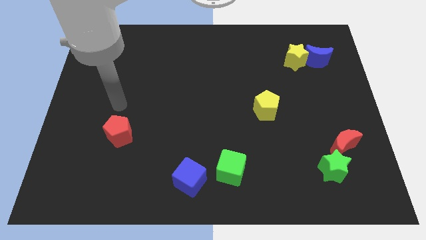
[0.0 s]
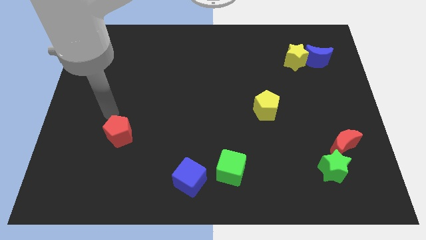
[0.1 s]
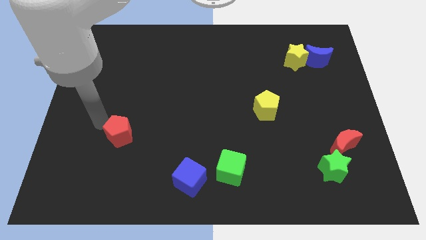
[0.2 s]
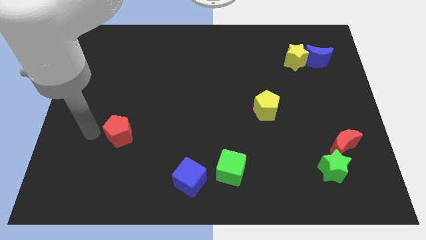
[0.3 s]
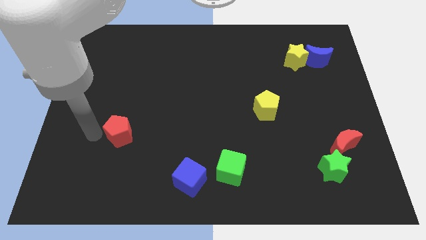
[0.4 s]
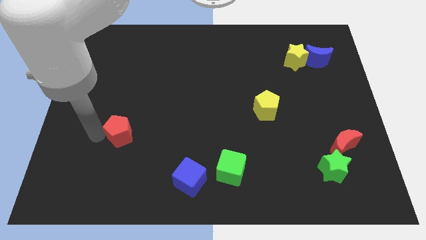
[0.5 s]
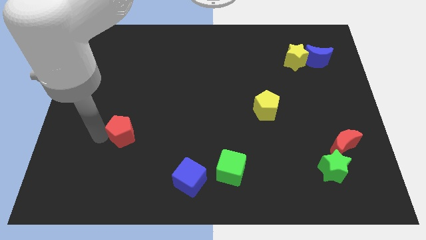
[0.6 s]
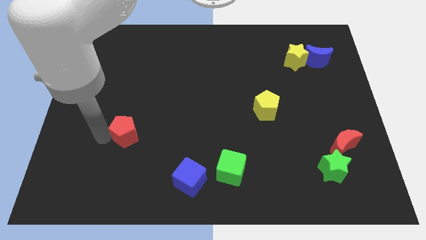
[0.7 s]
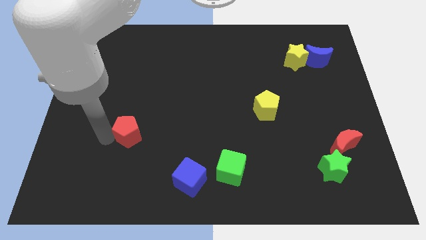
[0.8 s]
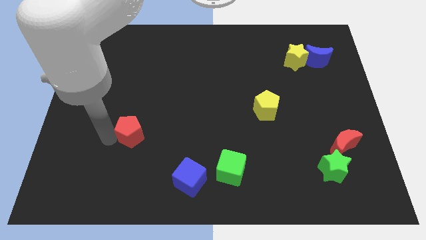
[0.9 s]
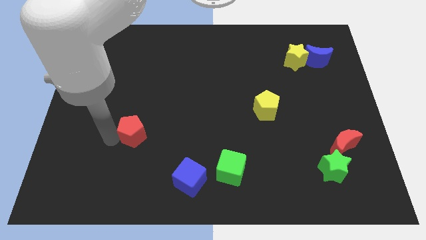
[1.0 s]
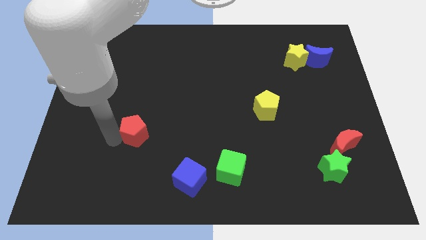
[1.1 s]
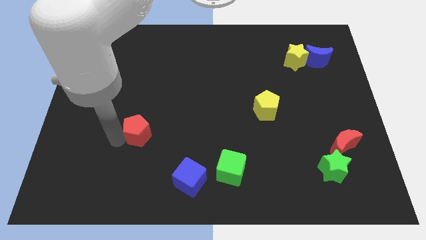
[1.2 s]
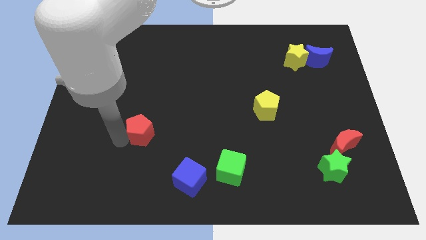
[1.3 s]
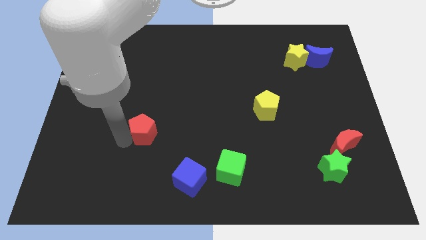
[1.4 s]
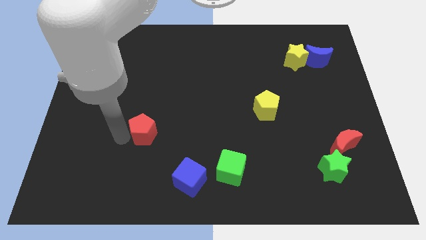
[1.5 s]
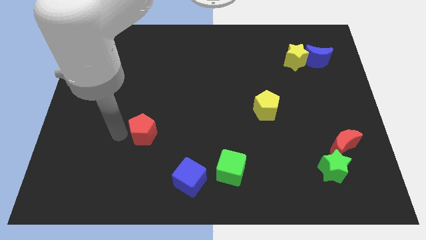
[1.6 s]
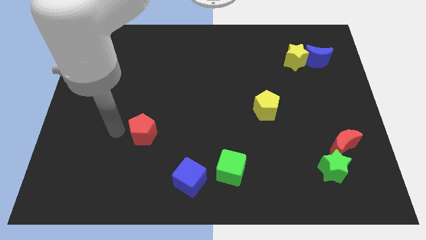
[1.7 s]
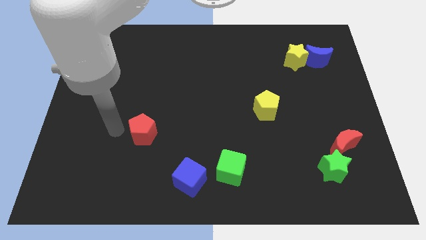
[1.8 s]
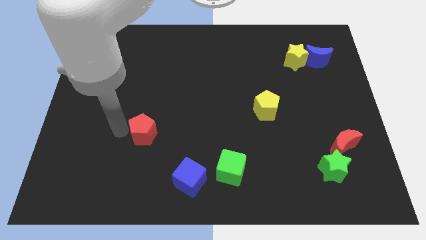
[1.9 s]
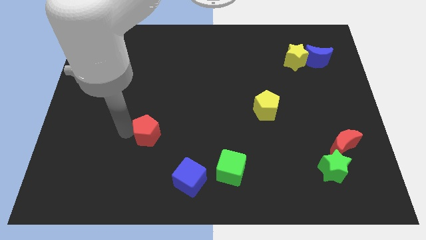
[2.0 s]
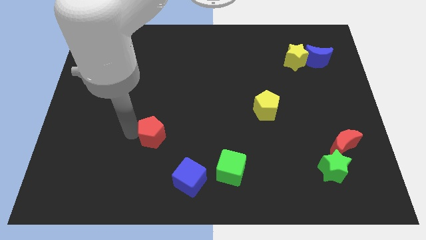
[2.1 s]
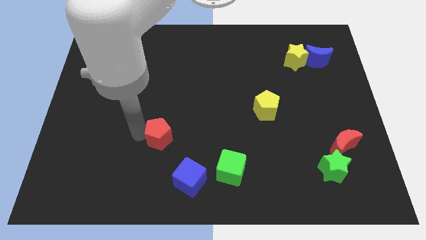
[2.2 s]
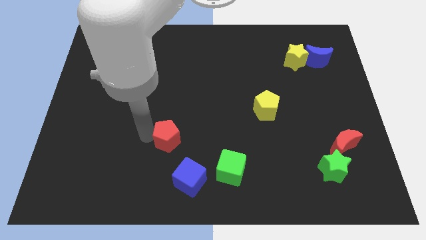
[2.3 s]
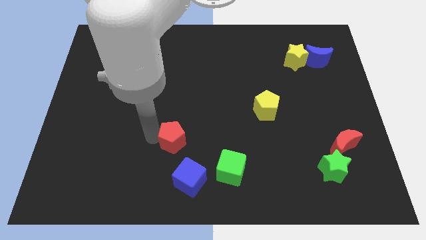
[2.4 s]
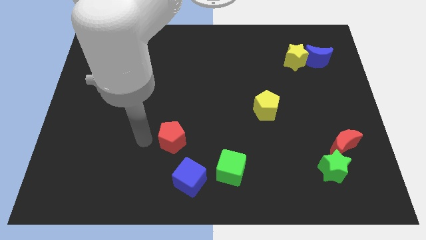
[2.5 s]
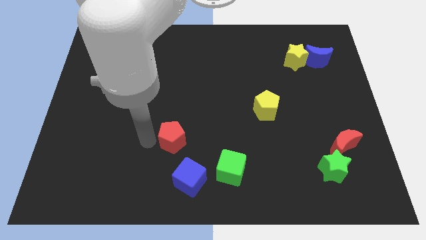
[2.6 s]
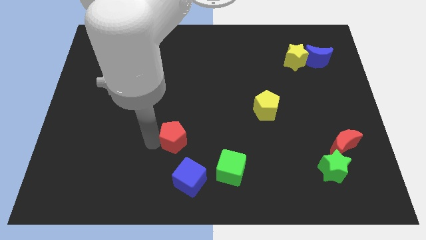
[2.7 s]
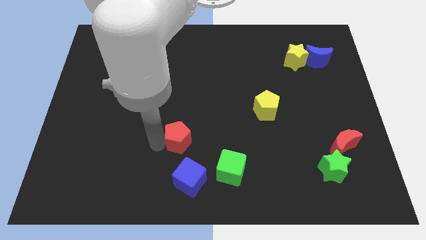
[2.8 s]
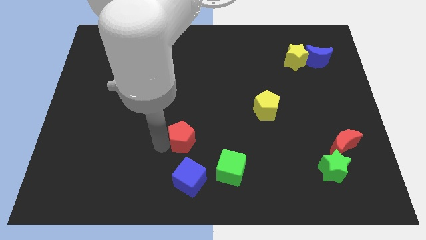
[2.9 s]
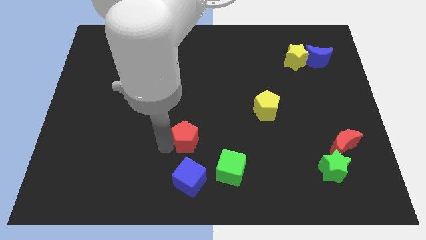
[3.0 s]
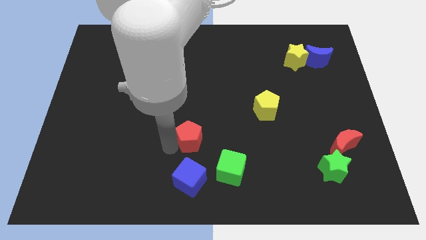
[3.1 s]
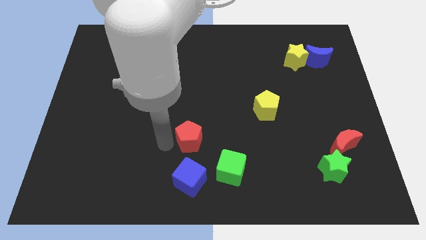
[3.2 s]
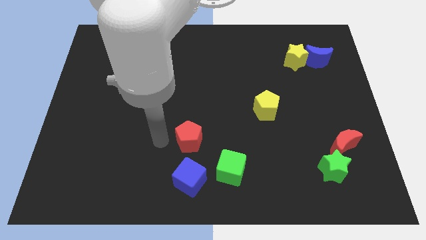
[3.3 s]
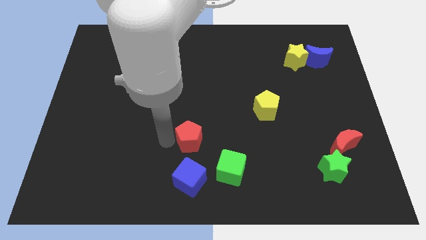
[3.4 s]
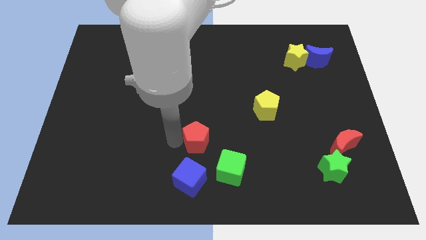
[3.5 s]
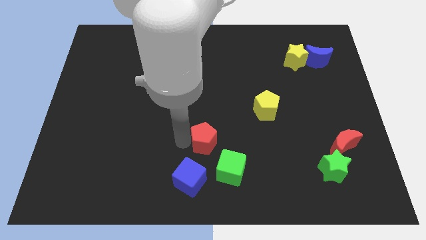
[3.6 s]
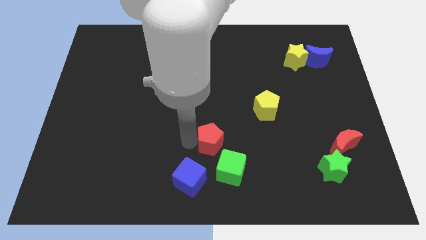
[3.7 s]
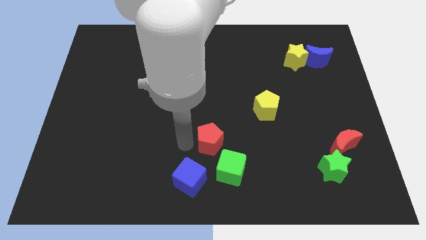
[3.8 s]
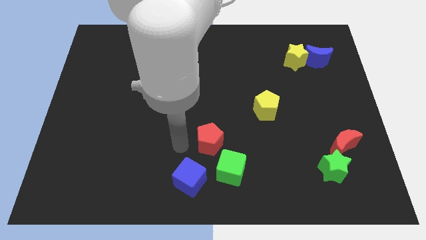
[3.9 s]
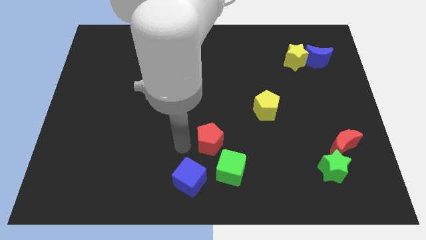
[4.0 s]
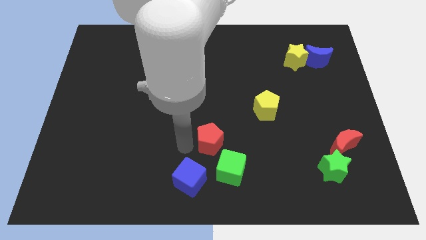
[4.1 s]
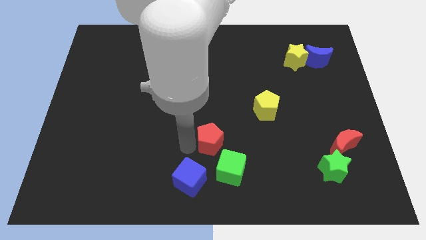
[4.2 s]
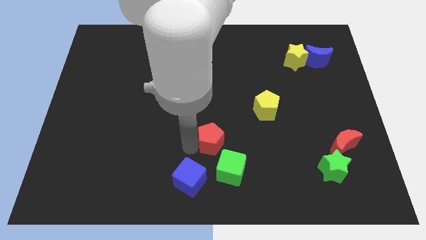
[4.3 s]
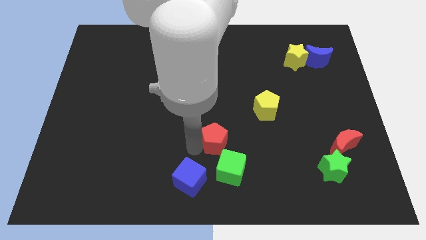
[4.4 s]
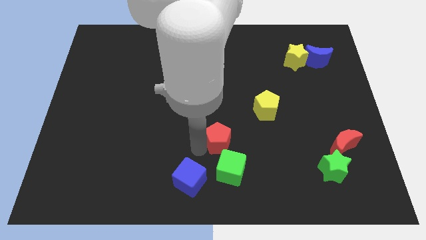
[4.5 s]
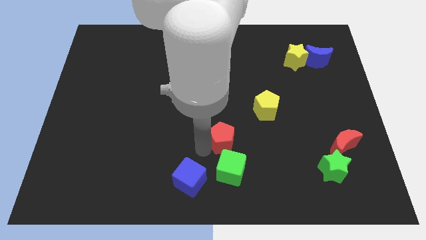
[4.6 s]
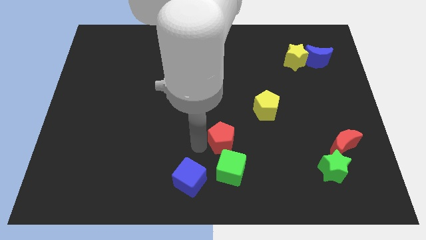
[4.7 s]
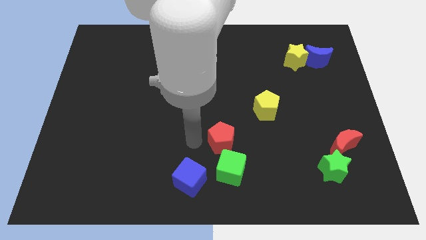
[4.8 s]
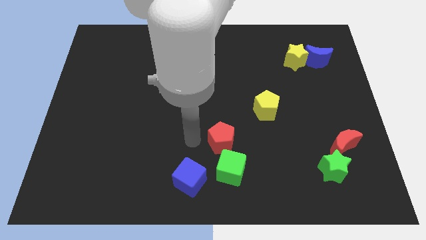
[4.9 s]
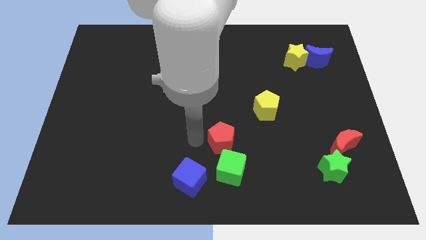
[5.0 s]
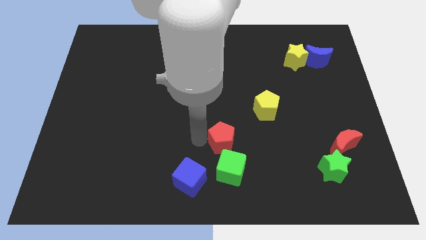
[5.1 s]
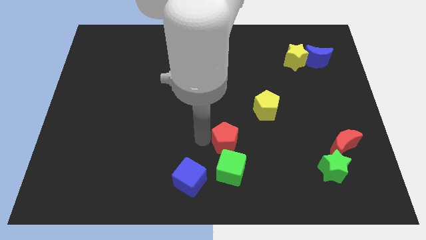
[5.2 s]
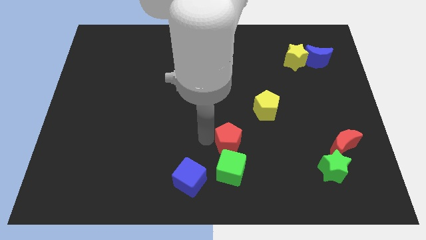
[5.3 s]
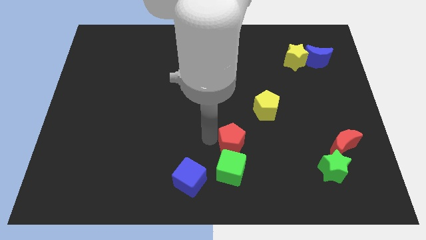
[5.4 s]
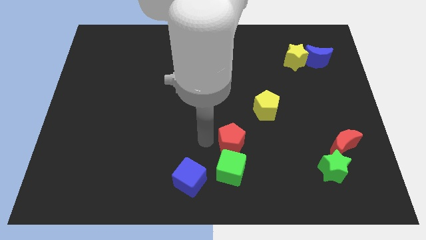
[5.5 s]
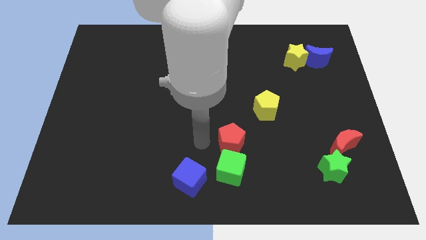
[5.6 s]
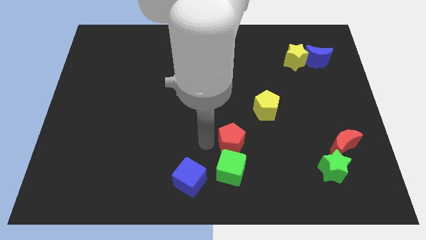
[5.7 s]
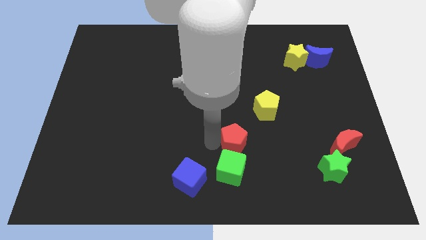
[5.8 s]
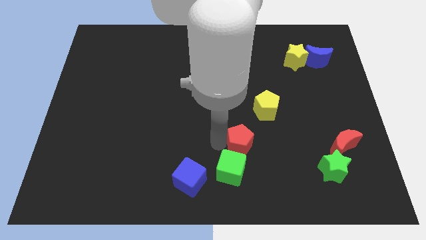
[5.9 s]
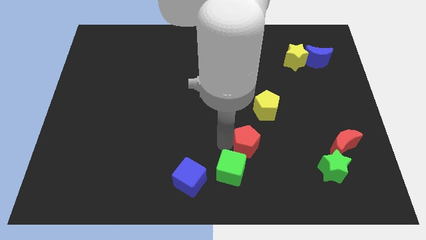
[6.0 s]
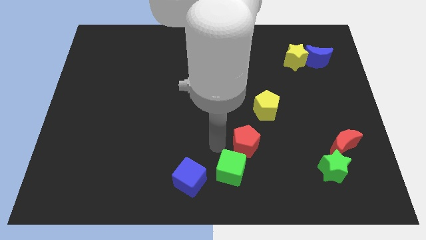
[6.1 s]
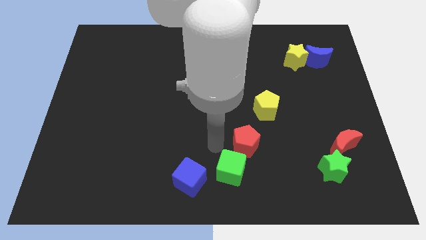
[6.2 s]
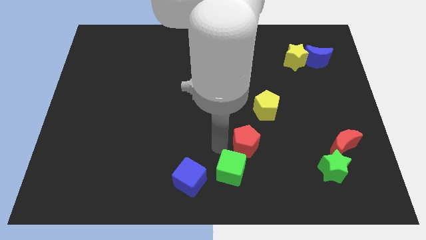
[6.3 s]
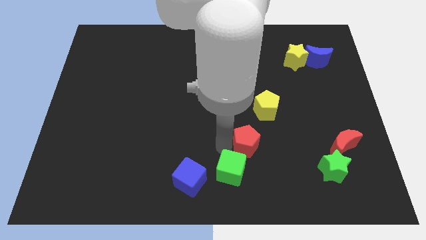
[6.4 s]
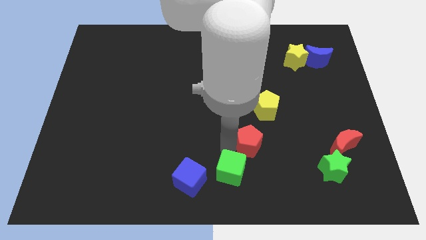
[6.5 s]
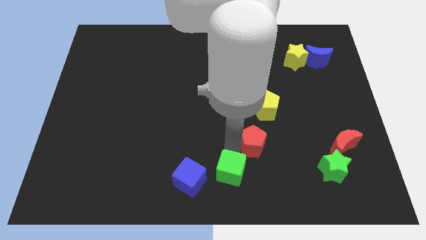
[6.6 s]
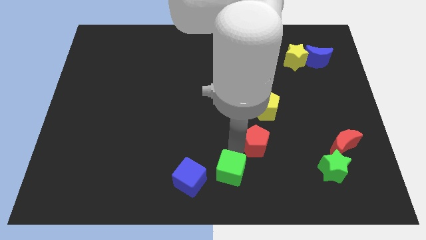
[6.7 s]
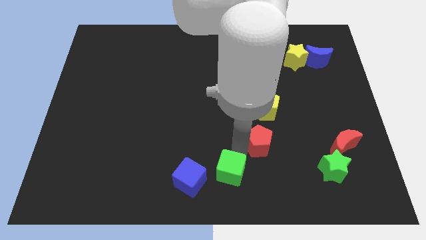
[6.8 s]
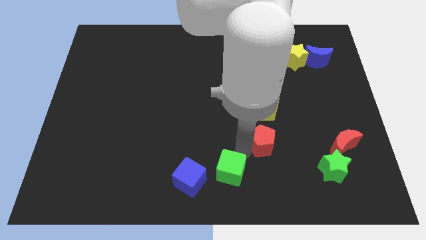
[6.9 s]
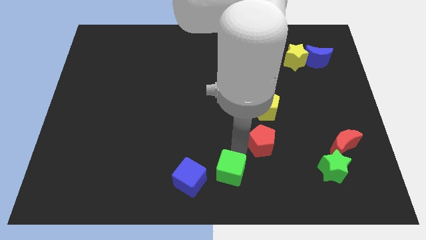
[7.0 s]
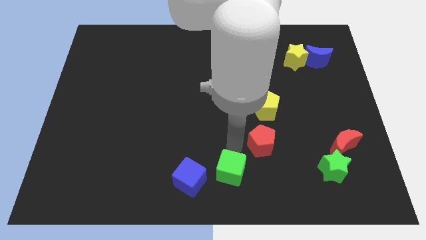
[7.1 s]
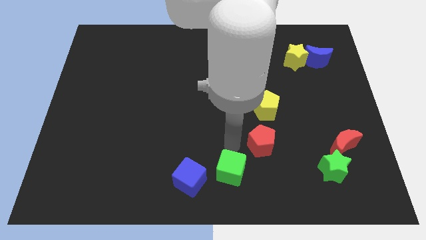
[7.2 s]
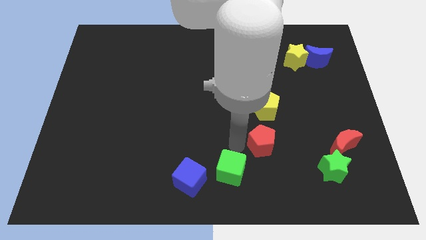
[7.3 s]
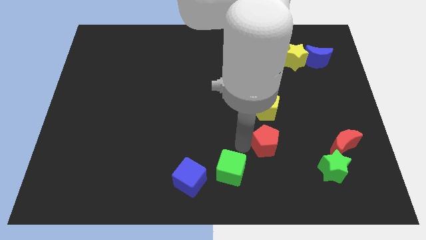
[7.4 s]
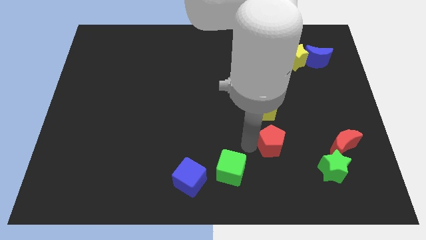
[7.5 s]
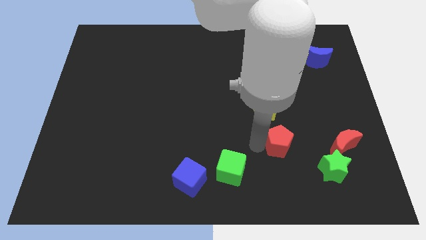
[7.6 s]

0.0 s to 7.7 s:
put the red pentagon to the top left of the green star
